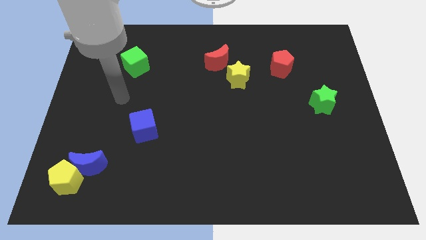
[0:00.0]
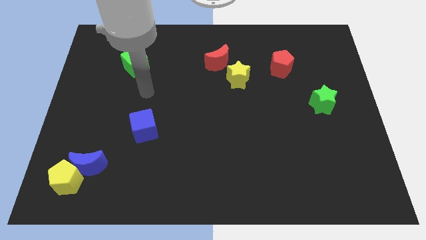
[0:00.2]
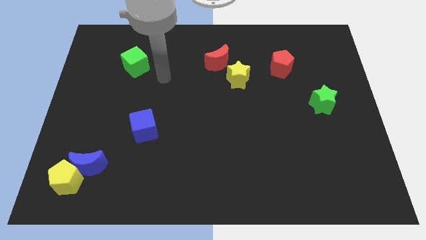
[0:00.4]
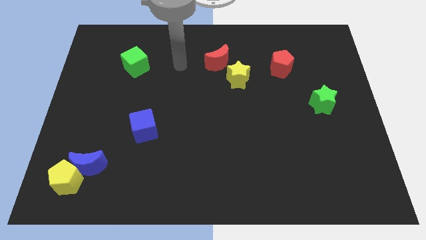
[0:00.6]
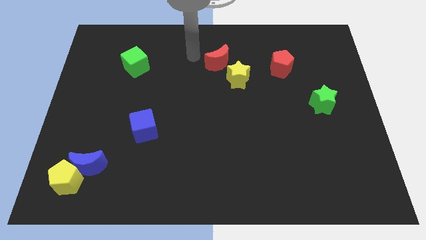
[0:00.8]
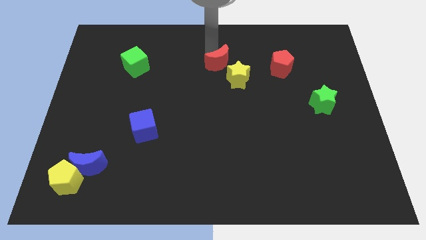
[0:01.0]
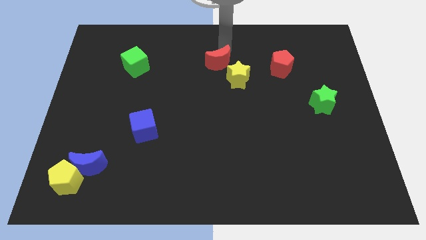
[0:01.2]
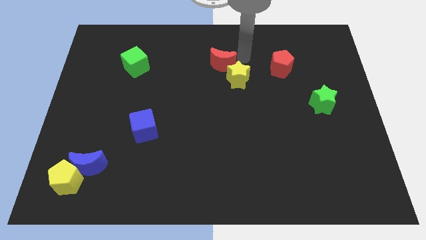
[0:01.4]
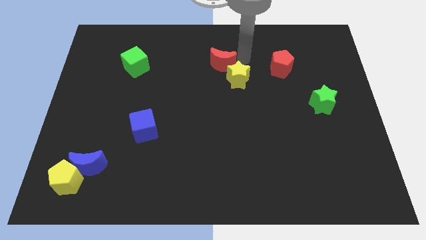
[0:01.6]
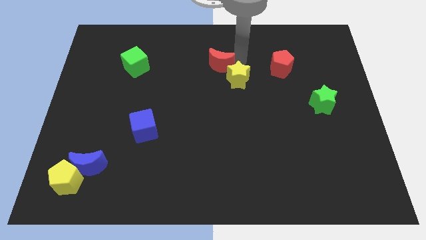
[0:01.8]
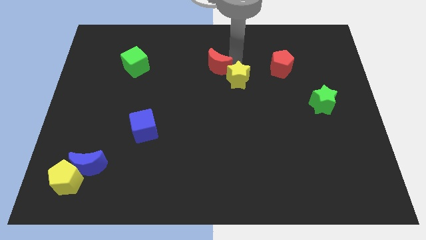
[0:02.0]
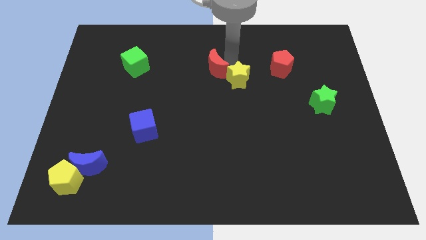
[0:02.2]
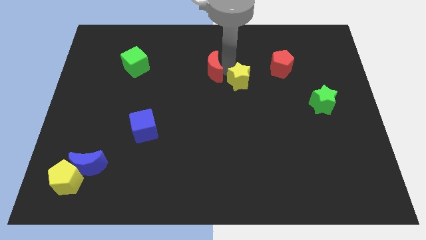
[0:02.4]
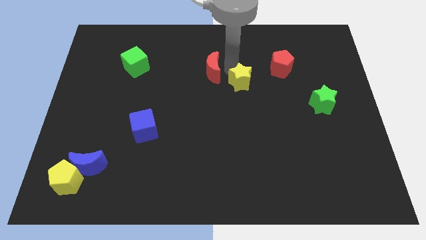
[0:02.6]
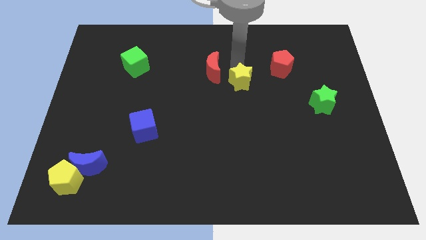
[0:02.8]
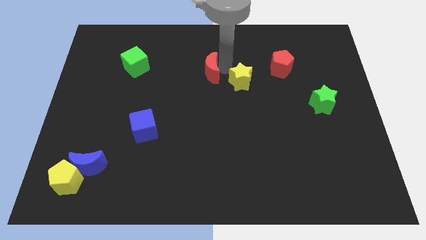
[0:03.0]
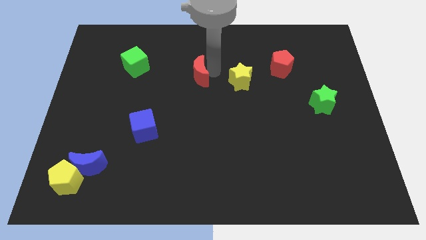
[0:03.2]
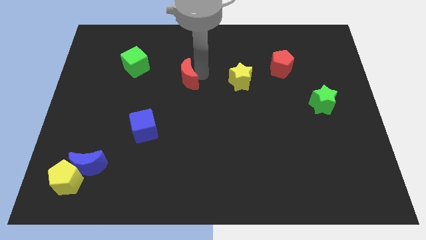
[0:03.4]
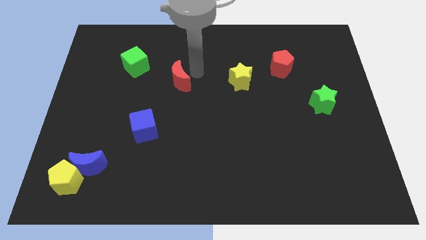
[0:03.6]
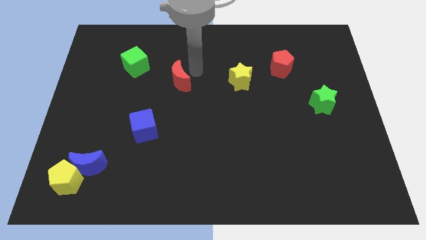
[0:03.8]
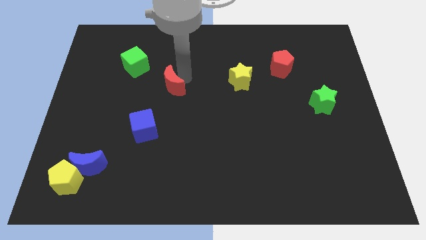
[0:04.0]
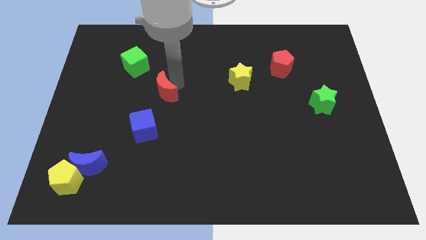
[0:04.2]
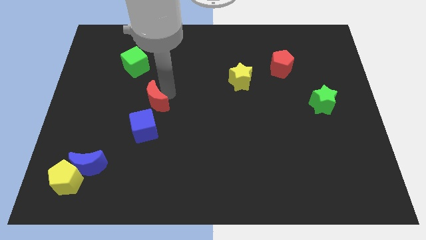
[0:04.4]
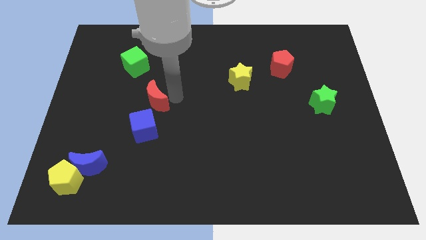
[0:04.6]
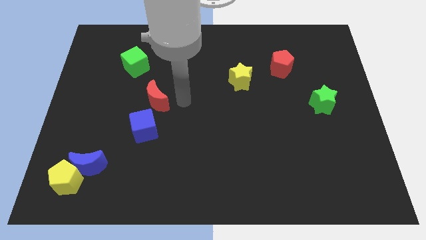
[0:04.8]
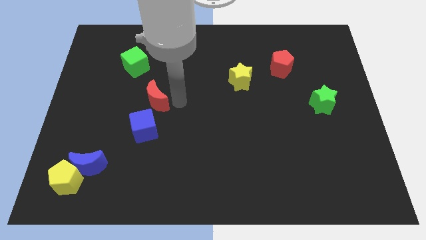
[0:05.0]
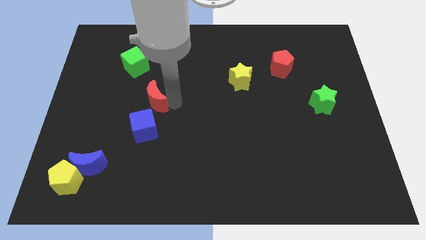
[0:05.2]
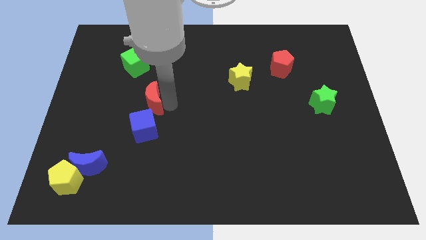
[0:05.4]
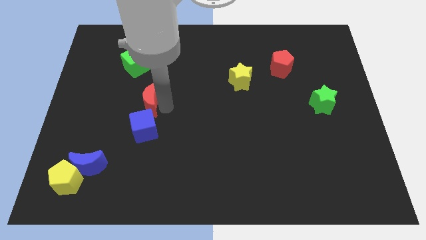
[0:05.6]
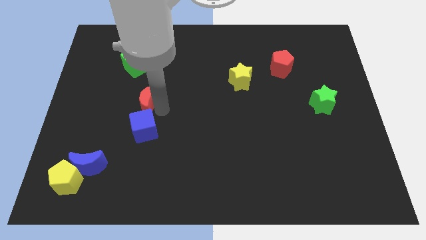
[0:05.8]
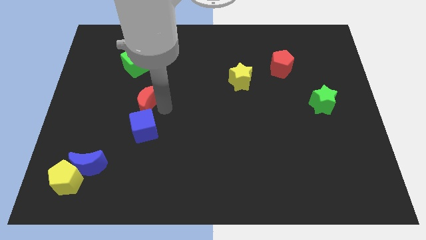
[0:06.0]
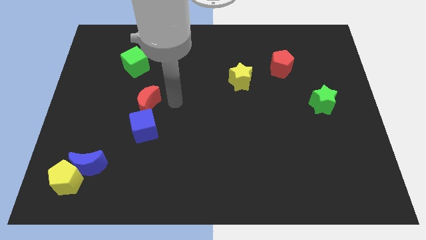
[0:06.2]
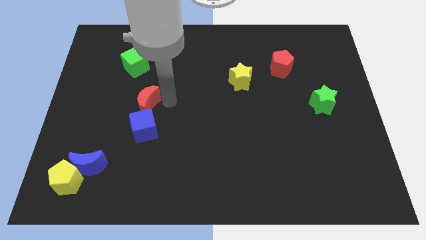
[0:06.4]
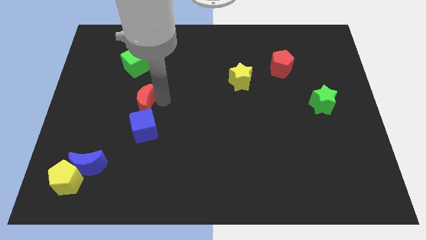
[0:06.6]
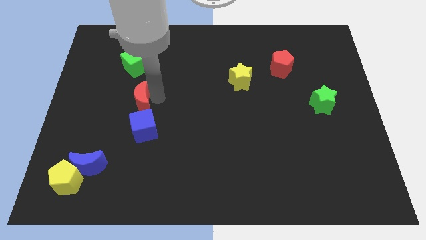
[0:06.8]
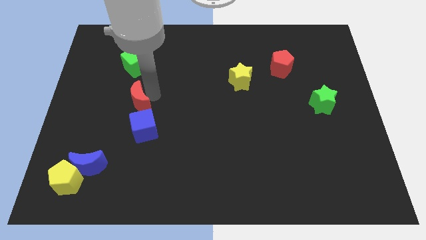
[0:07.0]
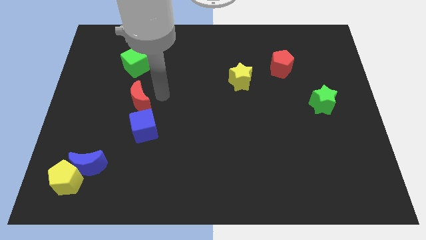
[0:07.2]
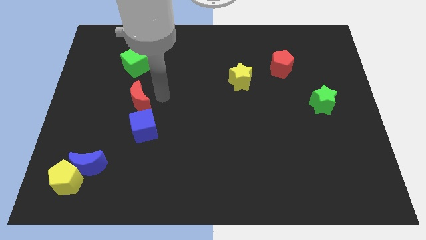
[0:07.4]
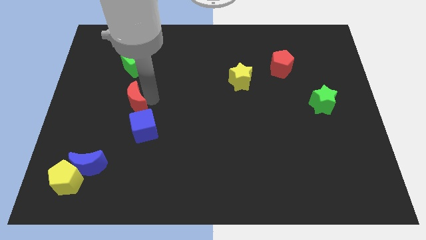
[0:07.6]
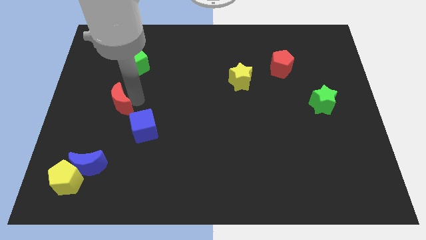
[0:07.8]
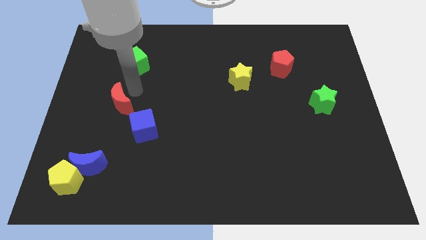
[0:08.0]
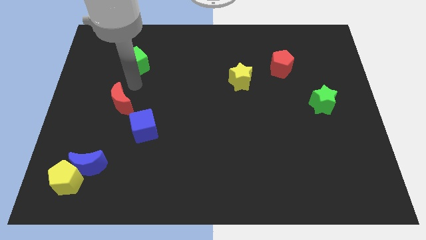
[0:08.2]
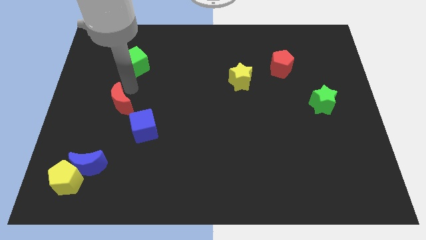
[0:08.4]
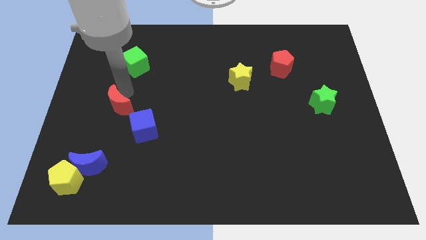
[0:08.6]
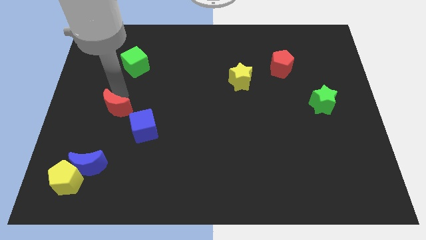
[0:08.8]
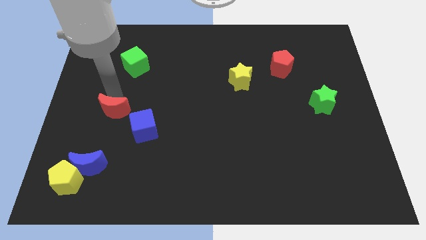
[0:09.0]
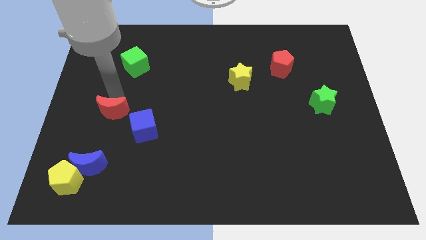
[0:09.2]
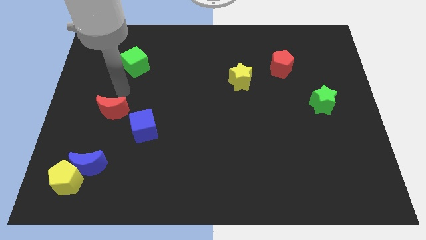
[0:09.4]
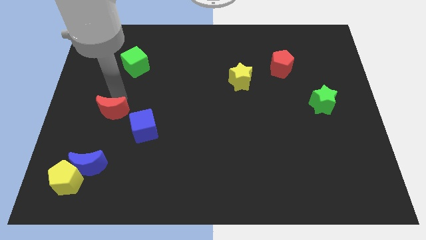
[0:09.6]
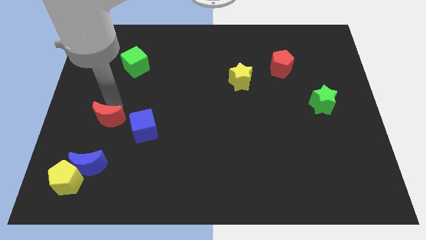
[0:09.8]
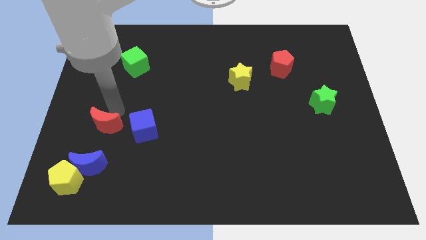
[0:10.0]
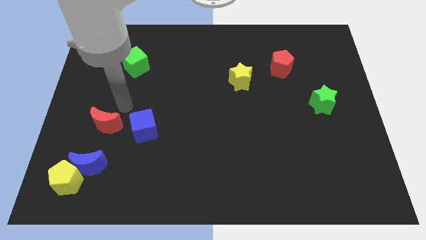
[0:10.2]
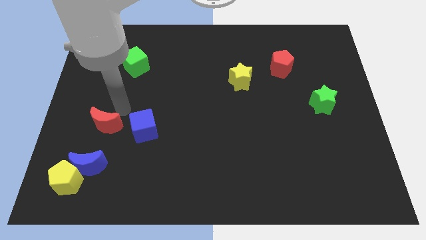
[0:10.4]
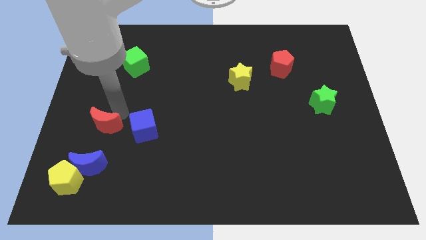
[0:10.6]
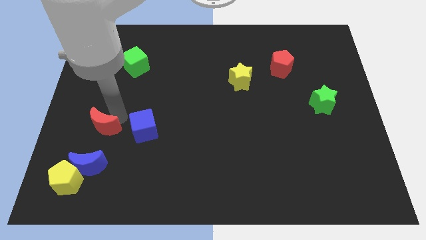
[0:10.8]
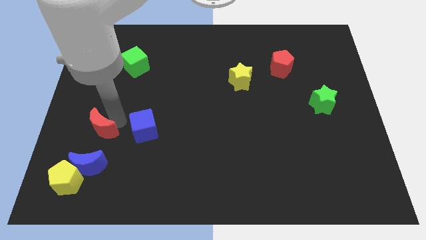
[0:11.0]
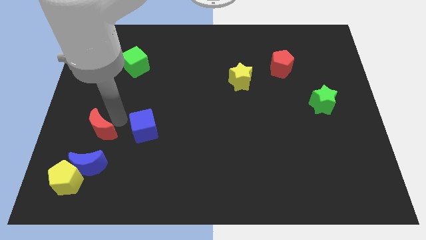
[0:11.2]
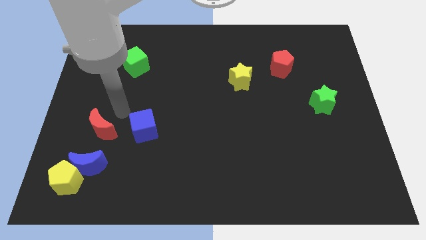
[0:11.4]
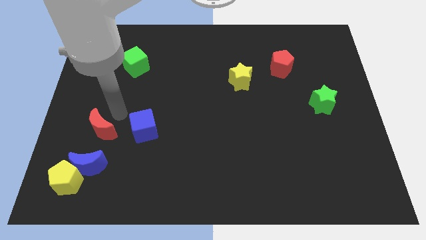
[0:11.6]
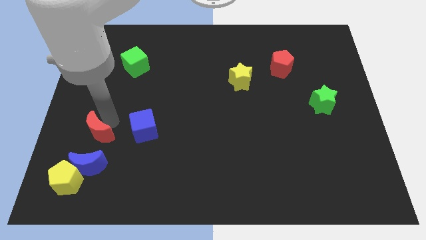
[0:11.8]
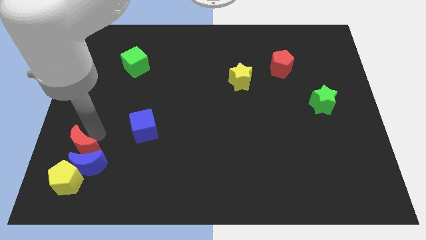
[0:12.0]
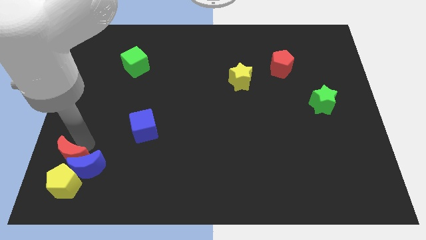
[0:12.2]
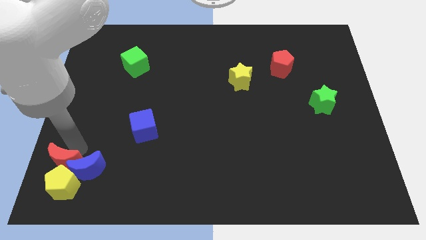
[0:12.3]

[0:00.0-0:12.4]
put the red moon next to the yellow pentagon
